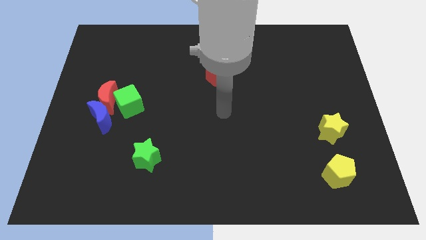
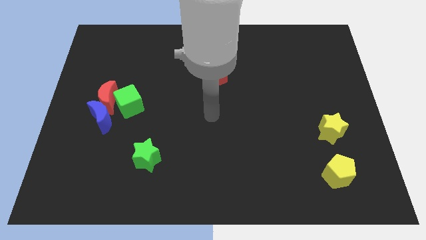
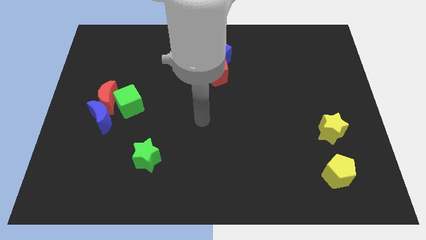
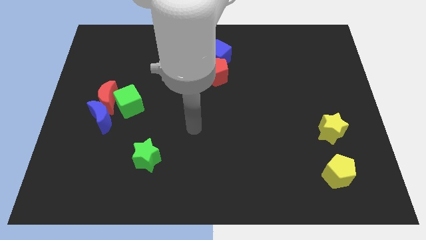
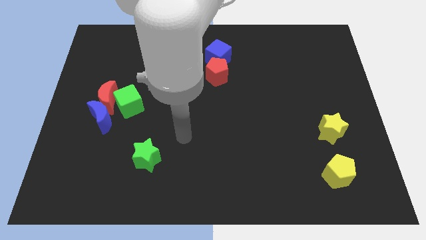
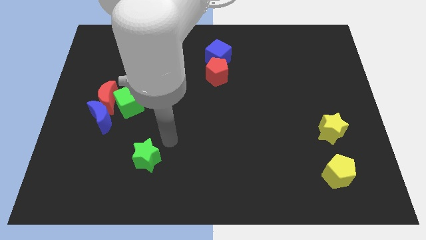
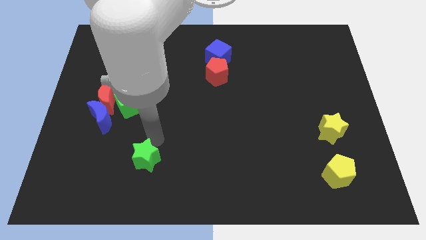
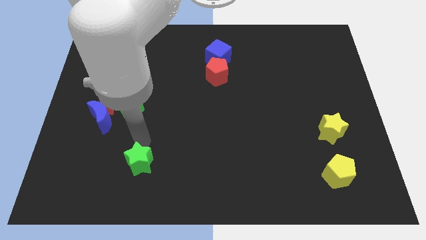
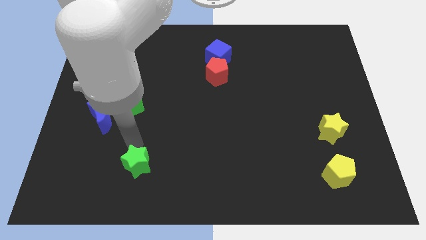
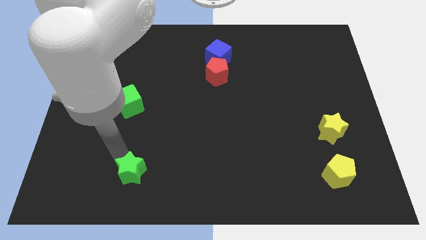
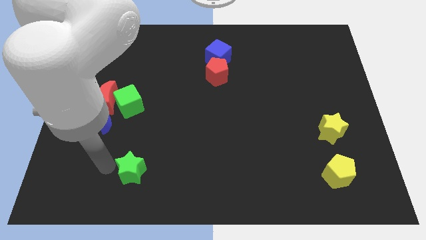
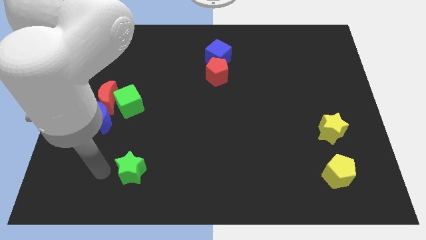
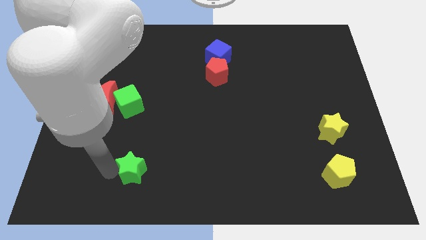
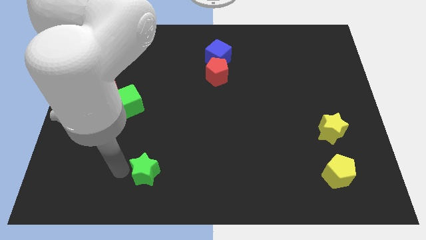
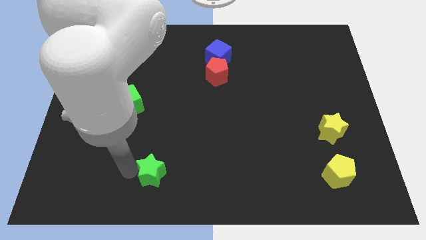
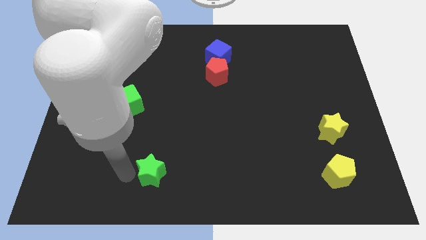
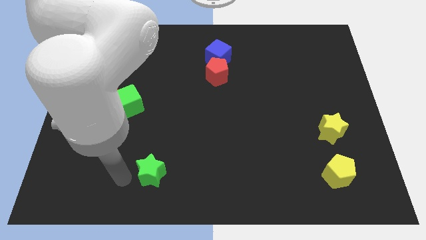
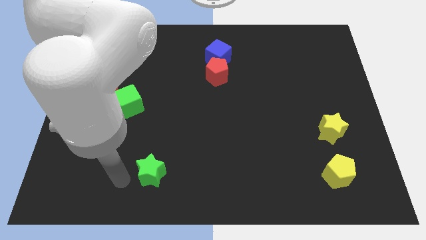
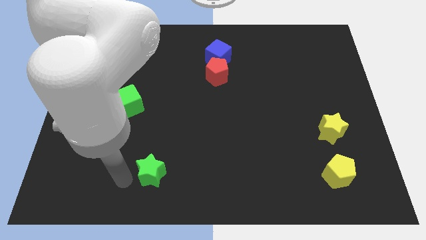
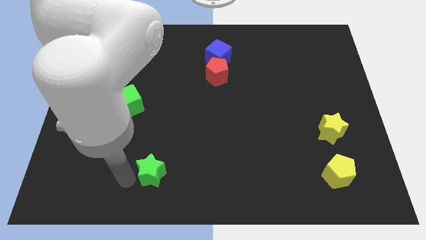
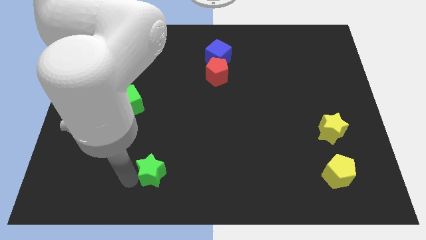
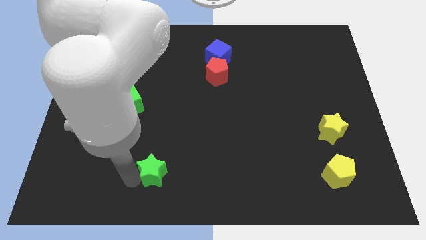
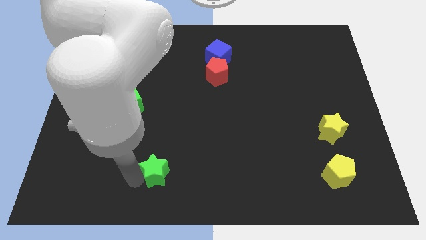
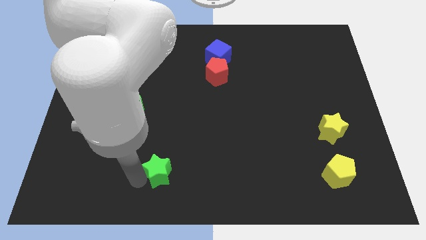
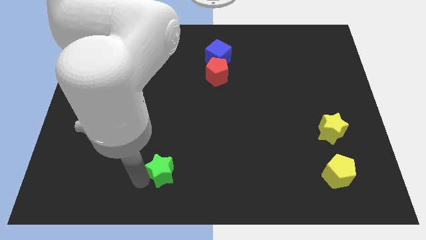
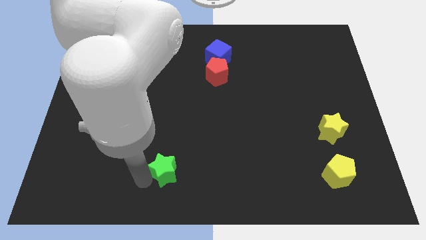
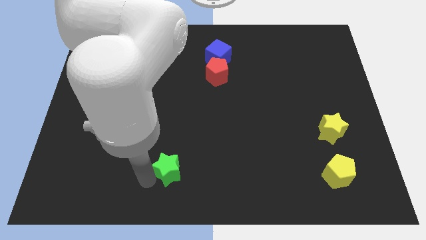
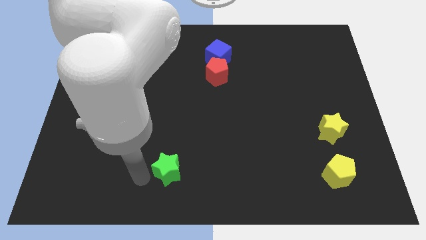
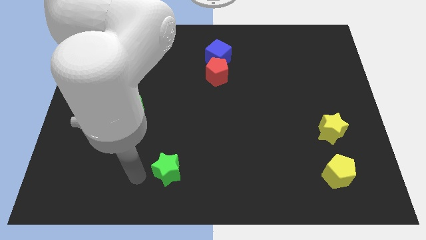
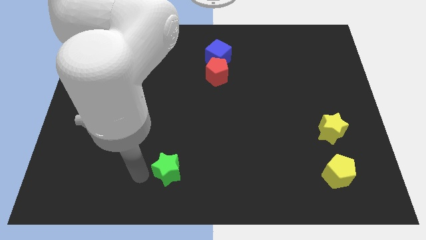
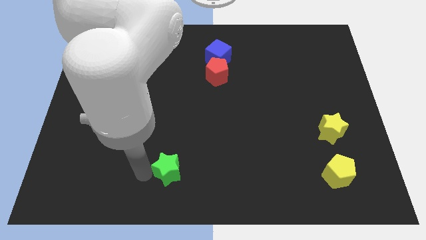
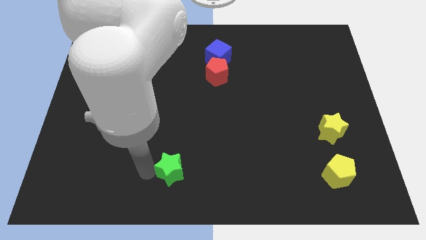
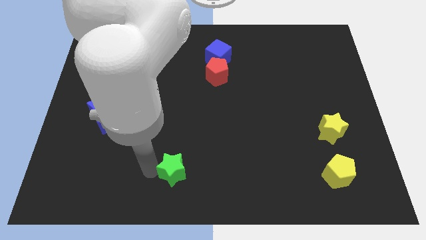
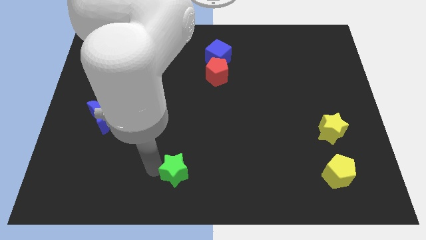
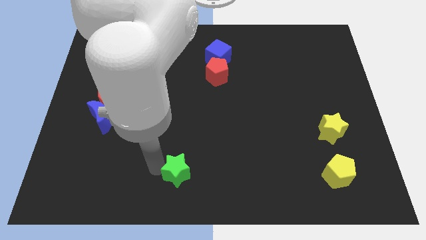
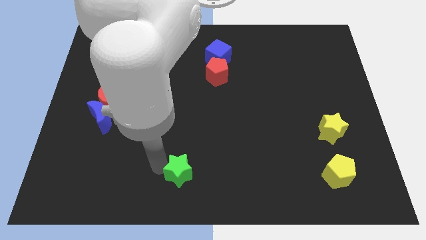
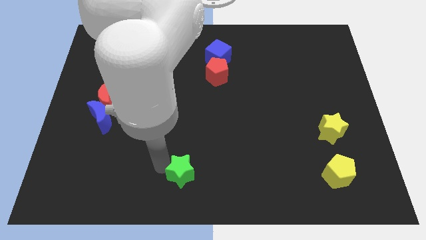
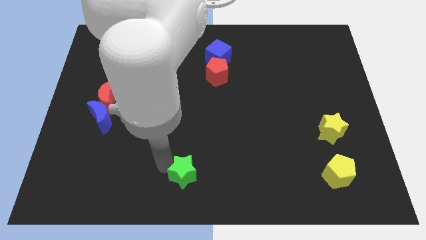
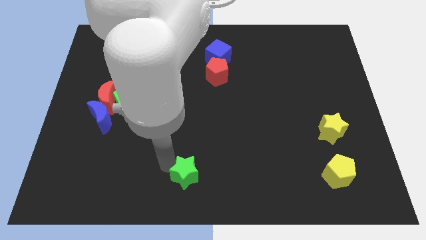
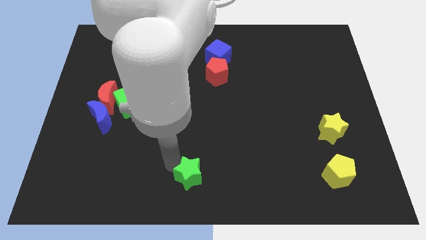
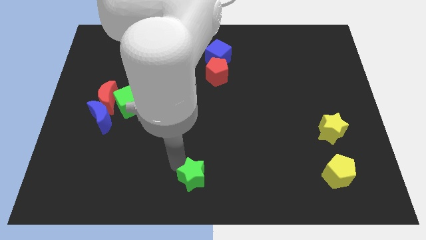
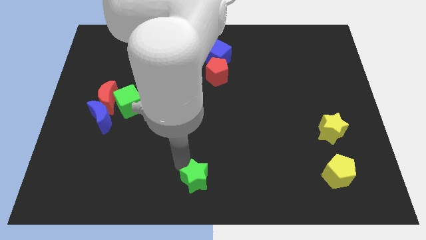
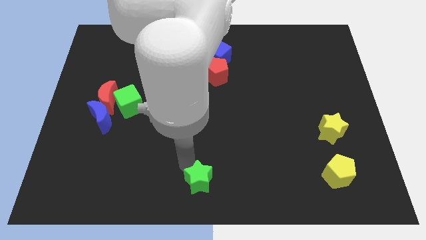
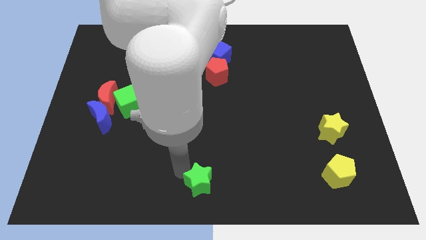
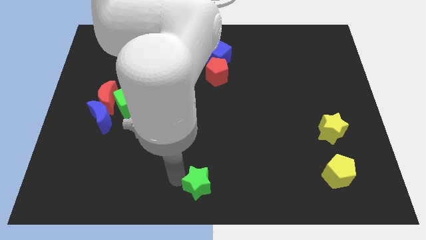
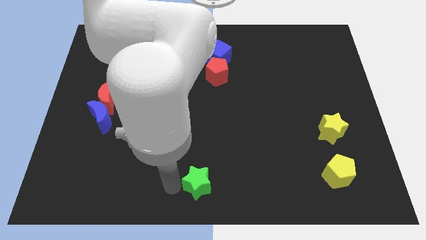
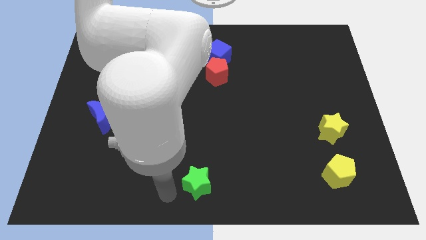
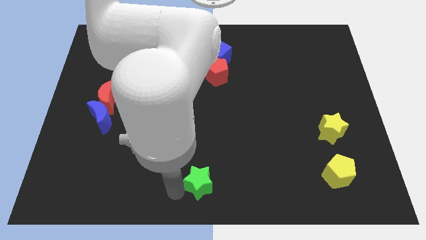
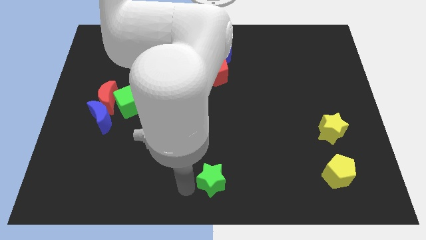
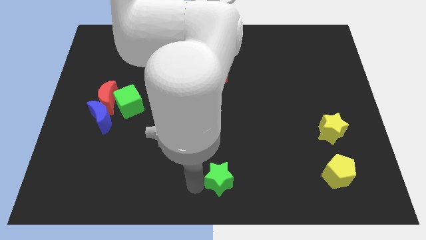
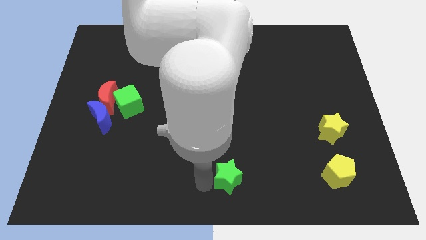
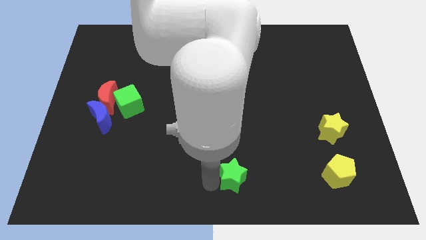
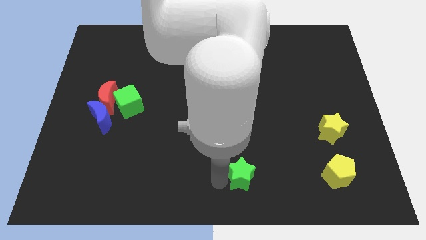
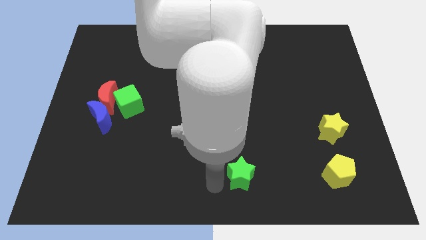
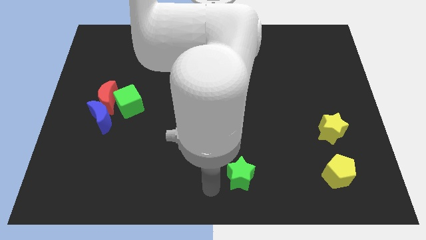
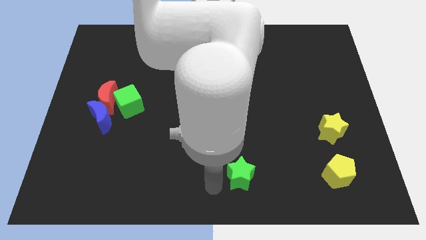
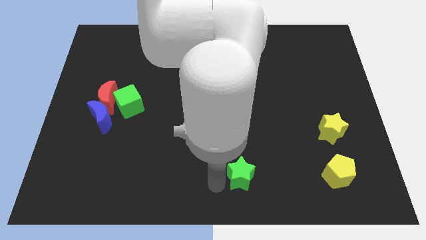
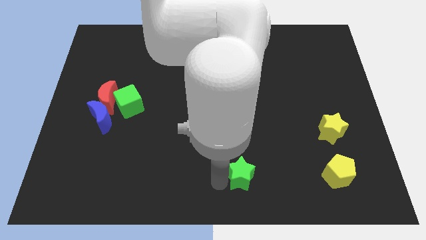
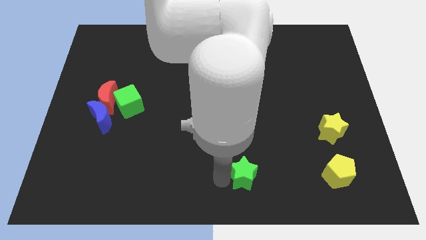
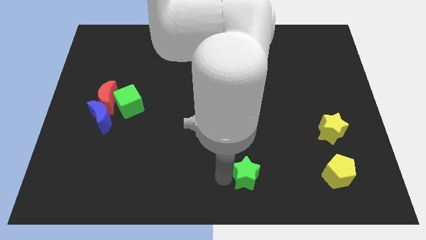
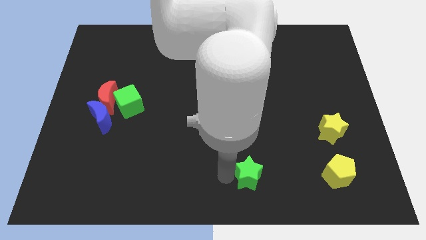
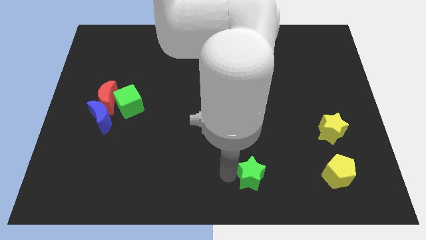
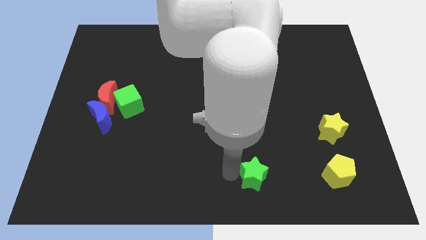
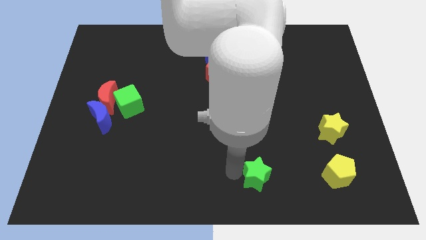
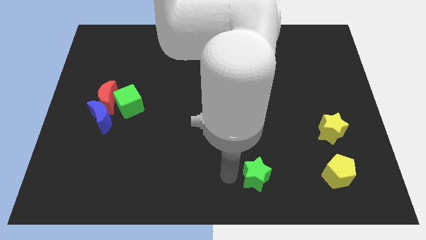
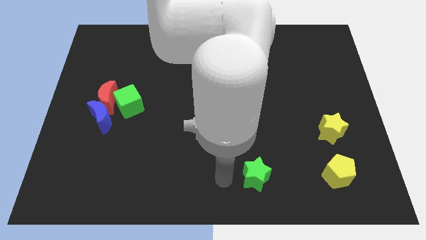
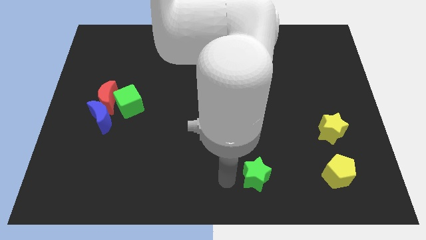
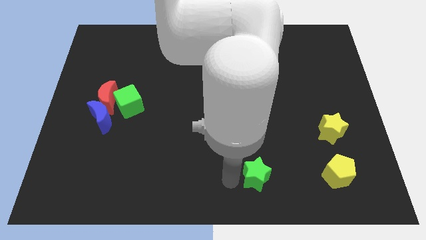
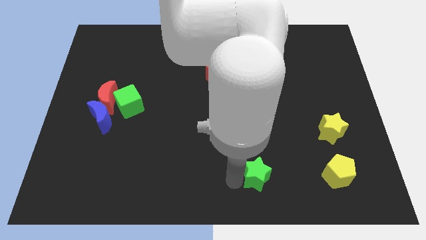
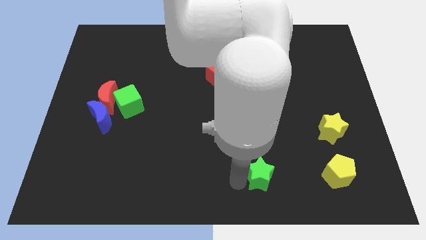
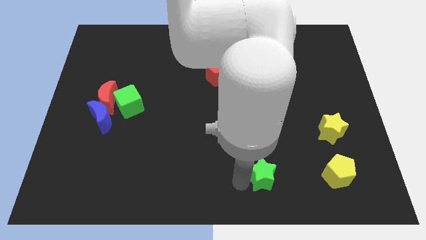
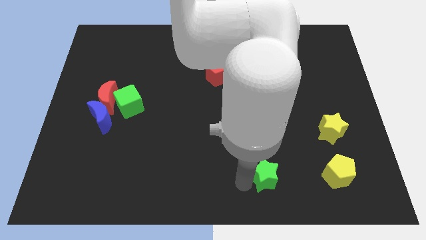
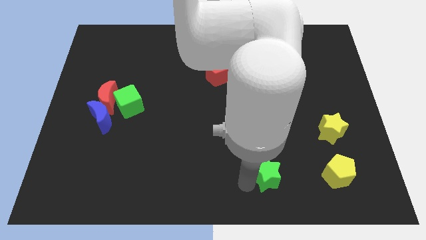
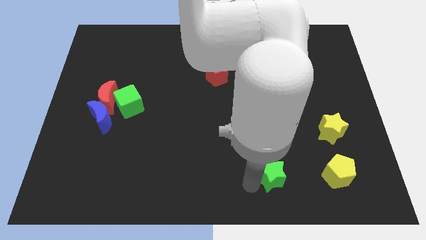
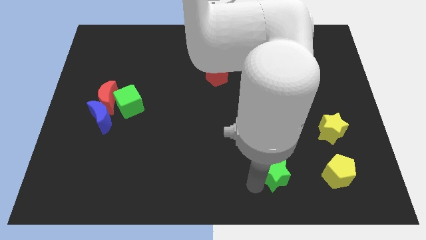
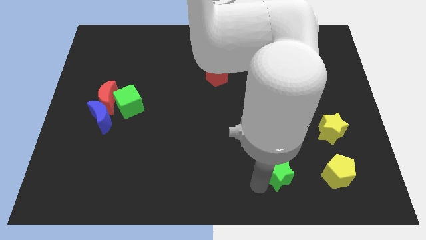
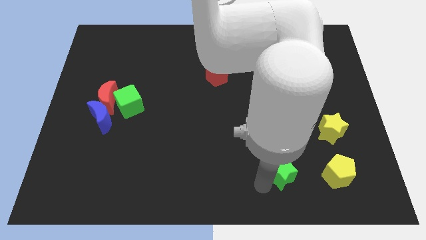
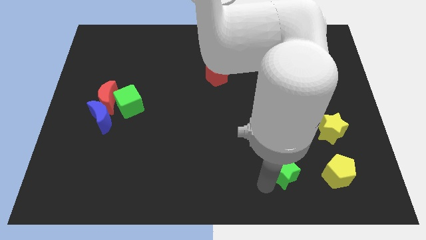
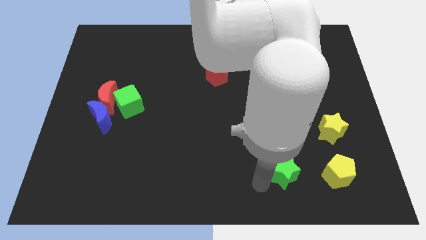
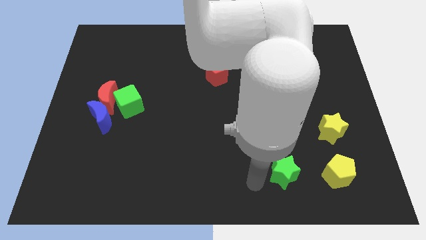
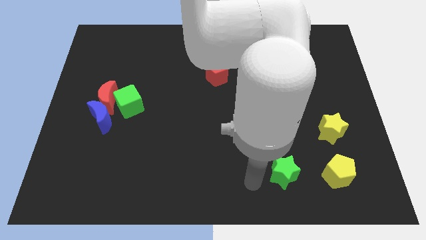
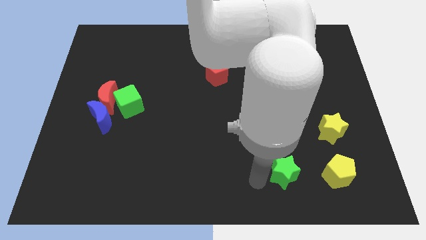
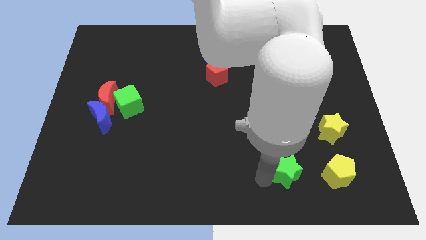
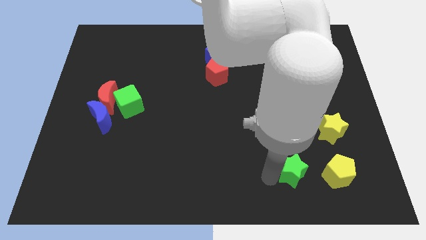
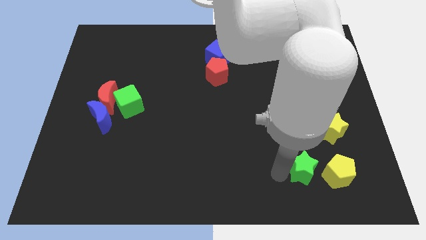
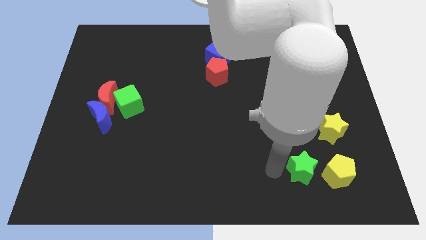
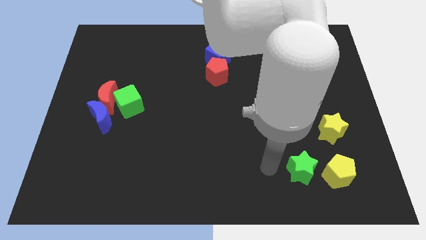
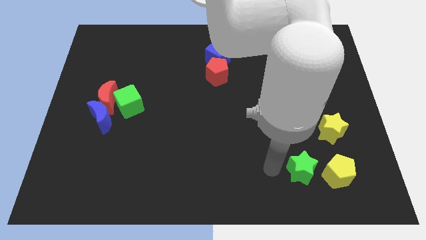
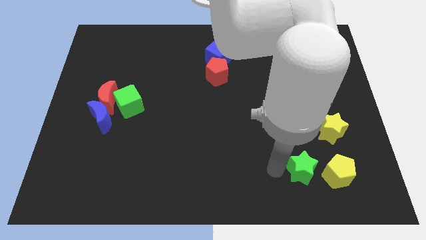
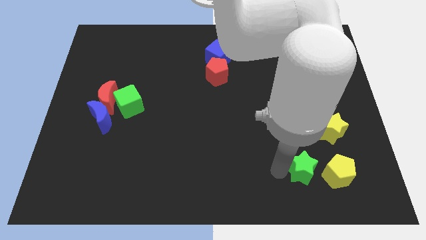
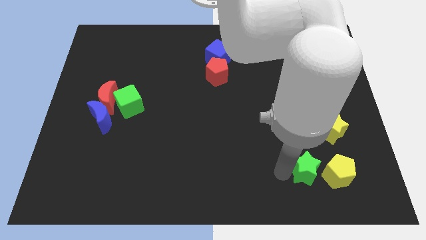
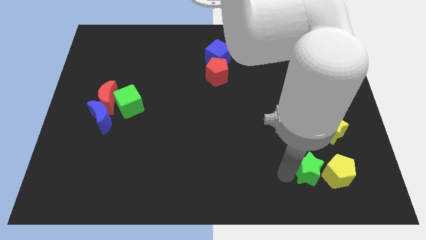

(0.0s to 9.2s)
slide the green star next to the yellow pentagon
